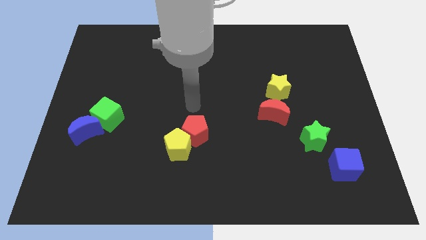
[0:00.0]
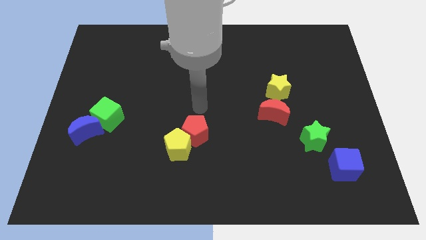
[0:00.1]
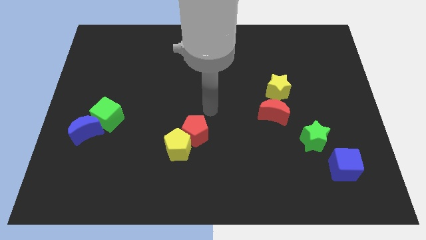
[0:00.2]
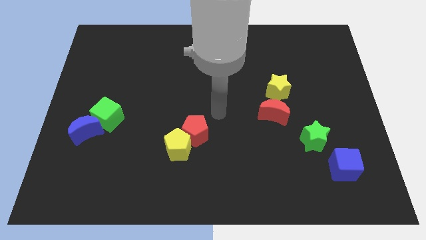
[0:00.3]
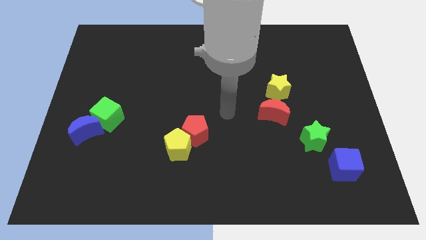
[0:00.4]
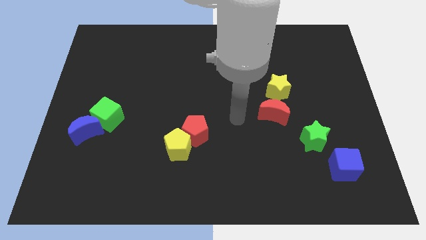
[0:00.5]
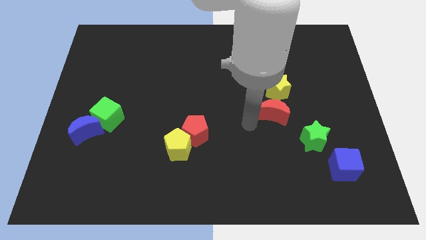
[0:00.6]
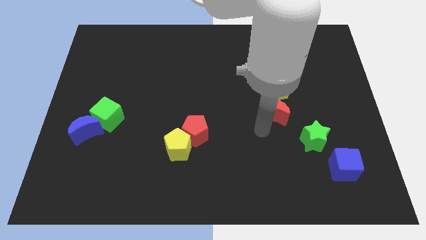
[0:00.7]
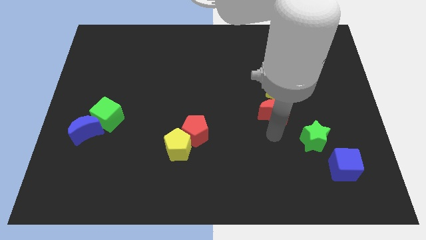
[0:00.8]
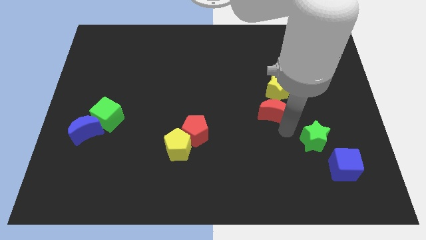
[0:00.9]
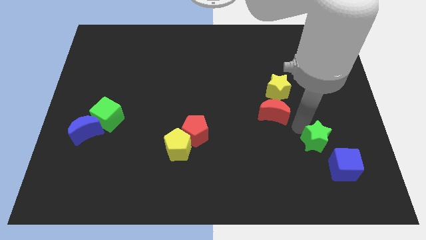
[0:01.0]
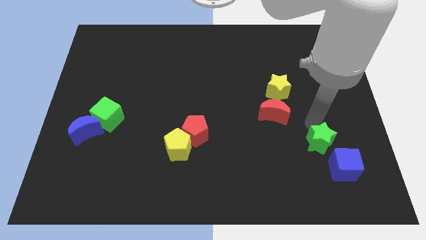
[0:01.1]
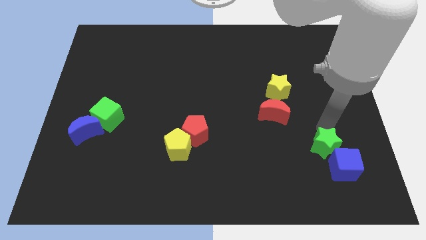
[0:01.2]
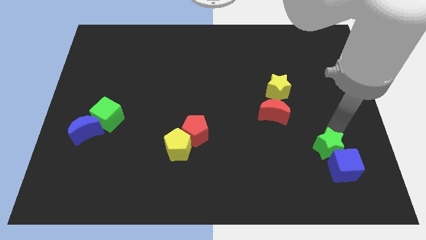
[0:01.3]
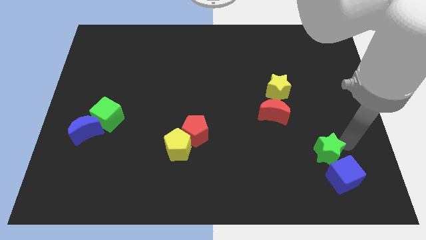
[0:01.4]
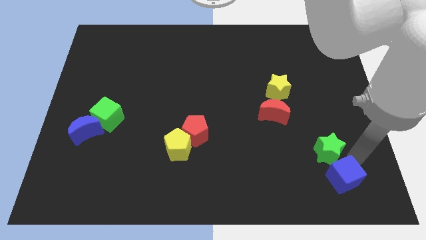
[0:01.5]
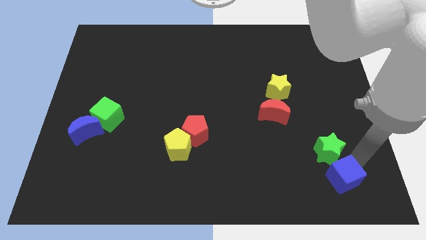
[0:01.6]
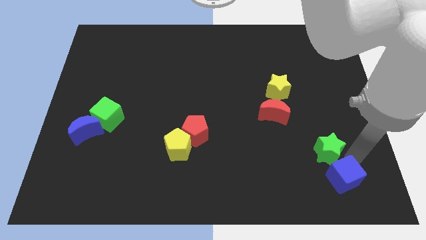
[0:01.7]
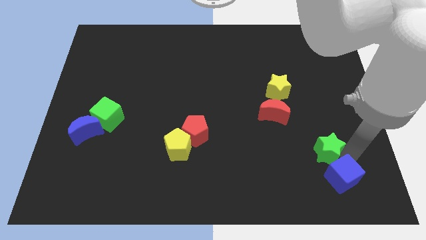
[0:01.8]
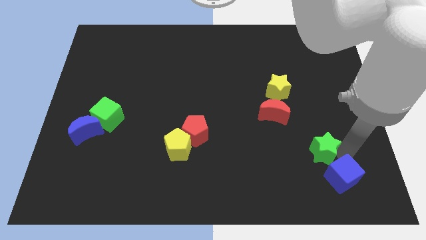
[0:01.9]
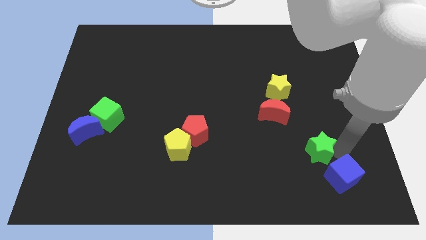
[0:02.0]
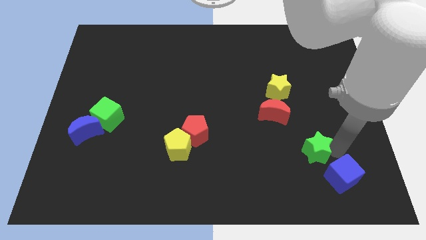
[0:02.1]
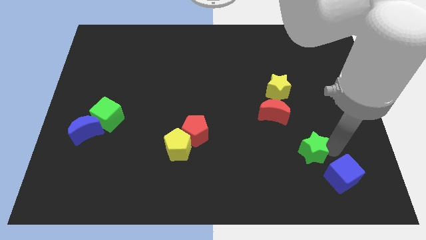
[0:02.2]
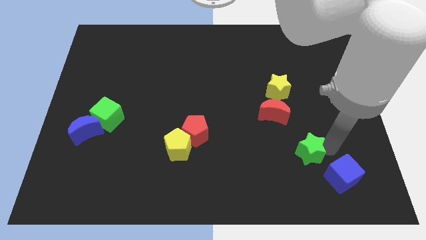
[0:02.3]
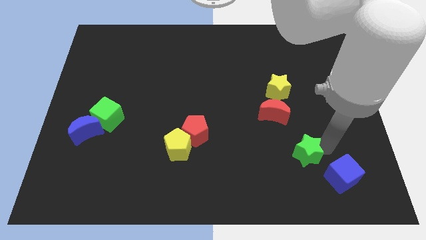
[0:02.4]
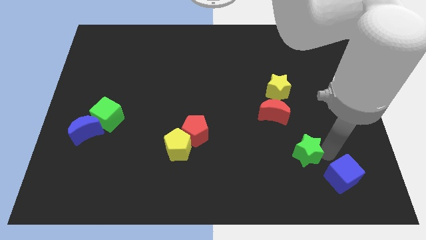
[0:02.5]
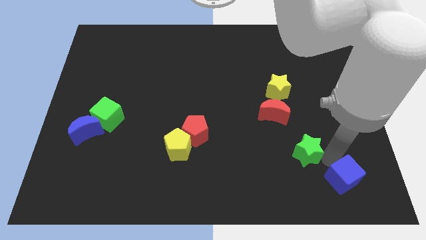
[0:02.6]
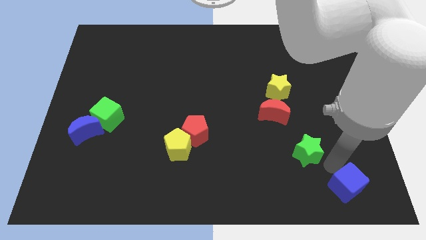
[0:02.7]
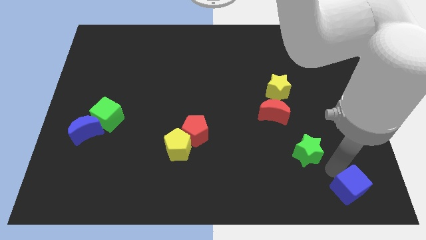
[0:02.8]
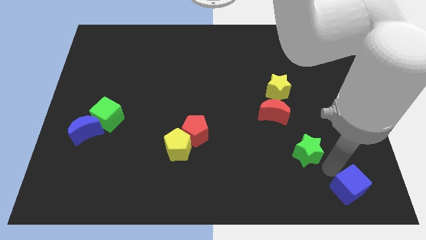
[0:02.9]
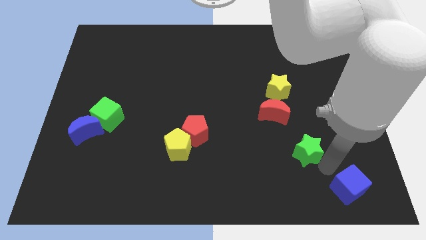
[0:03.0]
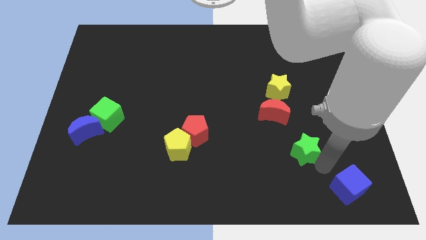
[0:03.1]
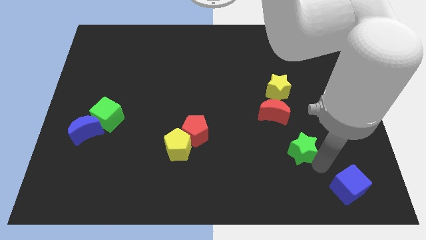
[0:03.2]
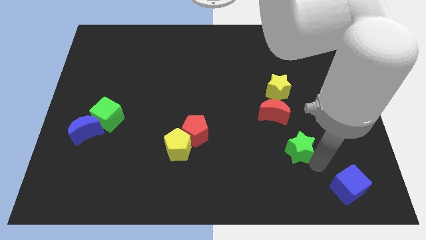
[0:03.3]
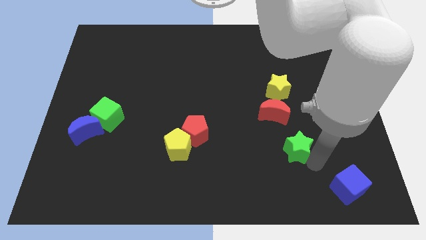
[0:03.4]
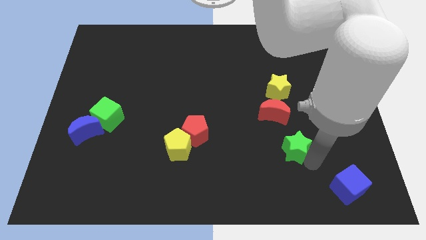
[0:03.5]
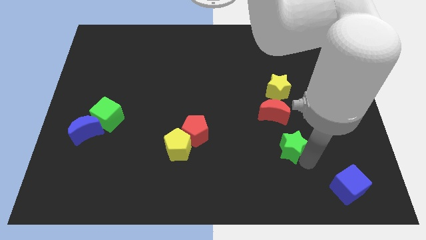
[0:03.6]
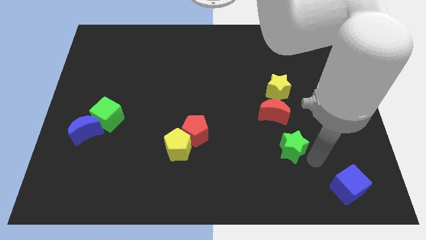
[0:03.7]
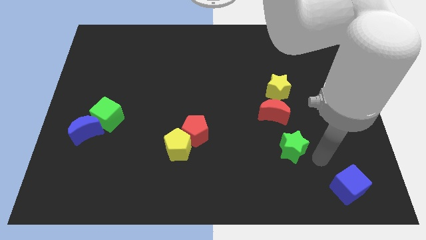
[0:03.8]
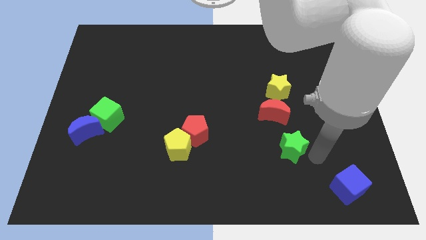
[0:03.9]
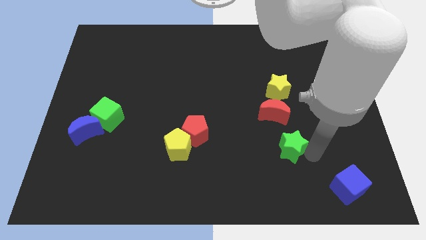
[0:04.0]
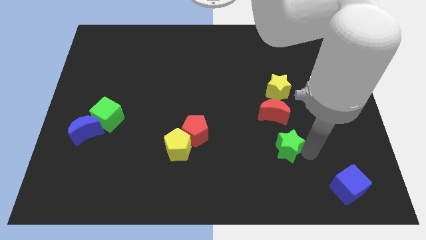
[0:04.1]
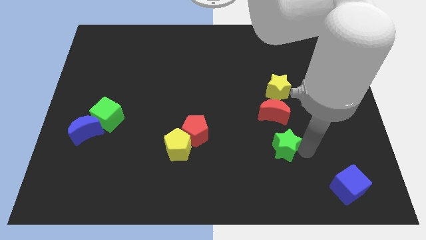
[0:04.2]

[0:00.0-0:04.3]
slightly move the green star left

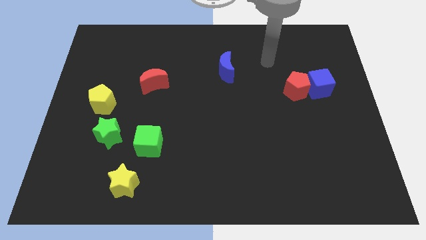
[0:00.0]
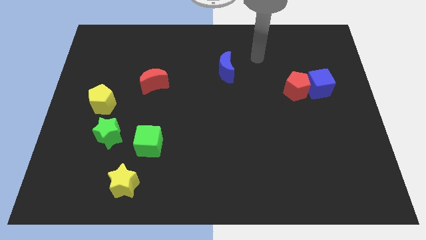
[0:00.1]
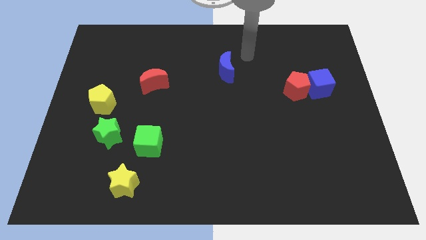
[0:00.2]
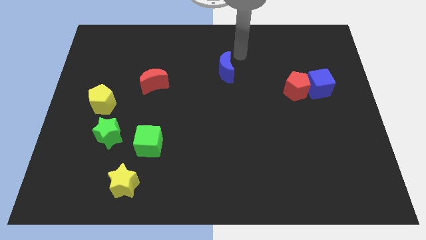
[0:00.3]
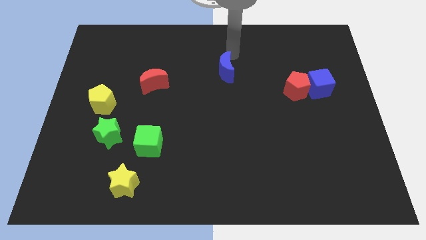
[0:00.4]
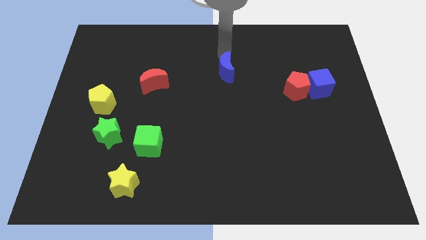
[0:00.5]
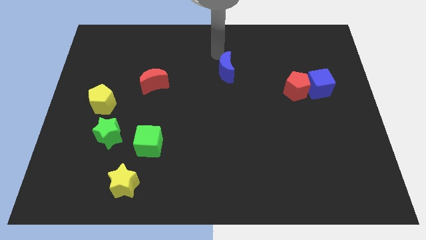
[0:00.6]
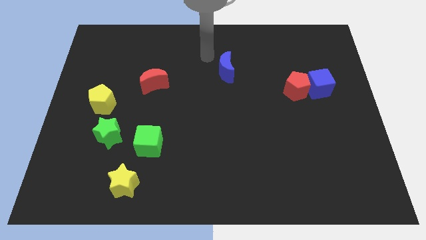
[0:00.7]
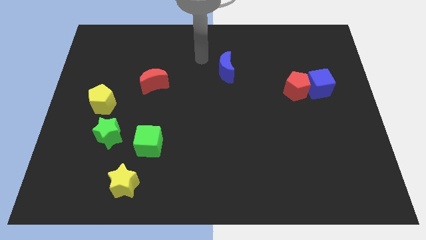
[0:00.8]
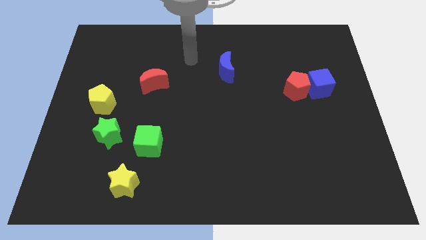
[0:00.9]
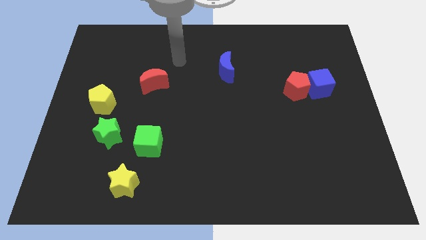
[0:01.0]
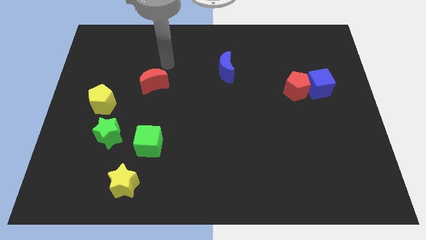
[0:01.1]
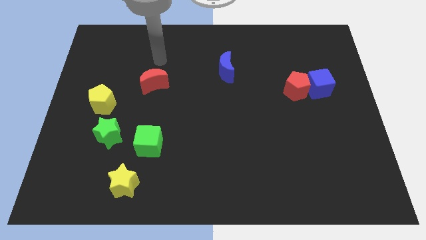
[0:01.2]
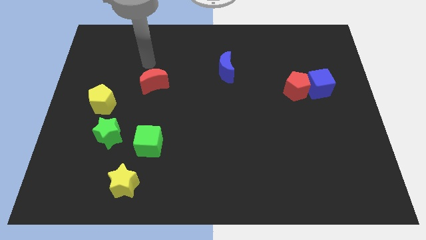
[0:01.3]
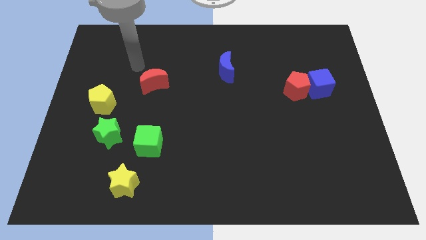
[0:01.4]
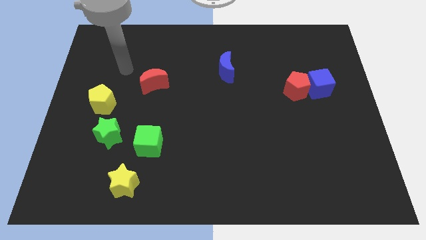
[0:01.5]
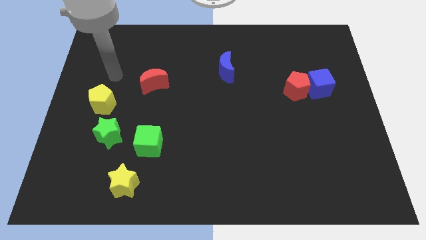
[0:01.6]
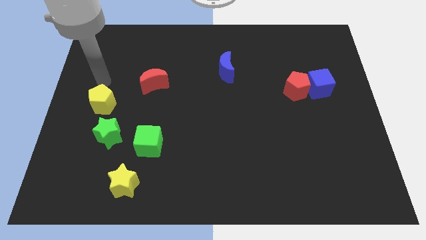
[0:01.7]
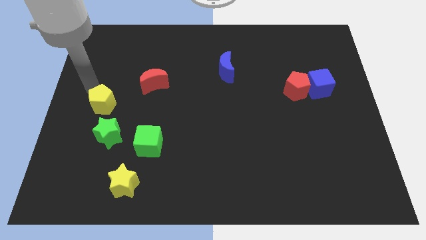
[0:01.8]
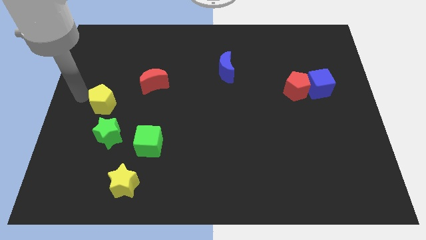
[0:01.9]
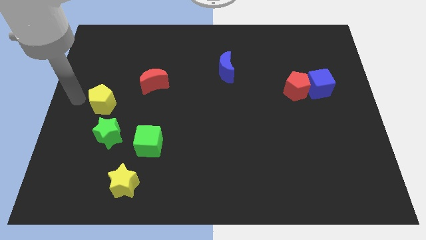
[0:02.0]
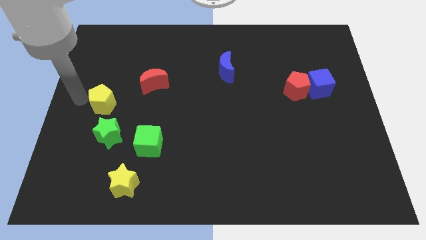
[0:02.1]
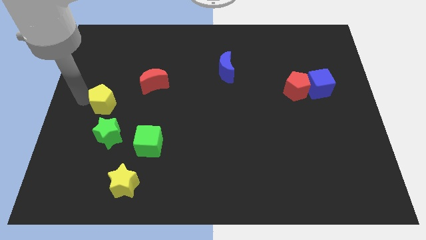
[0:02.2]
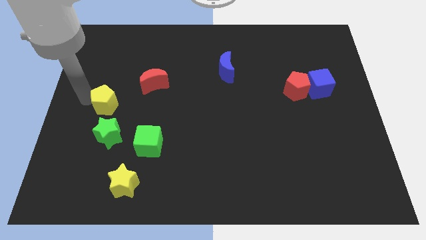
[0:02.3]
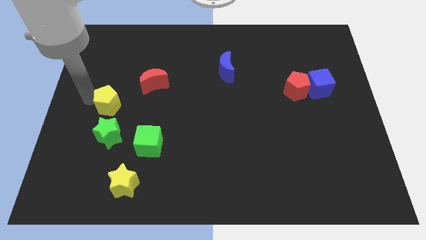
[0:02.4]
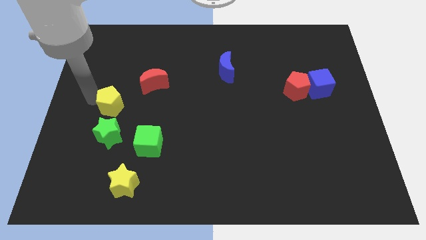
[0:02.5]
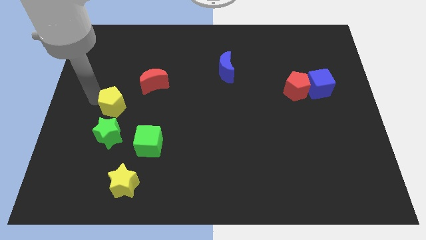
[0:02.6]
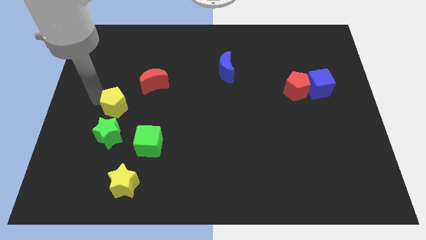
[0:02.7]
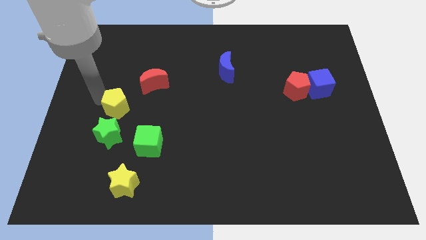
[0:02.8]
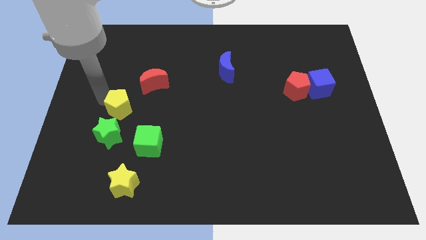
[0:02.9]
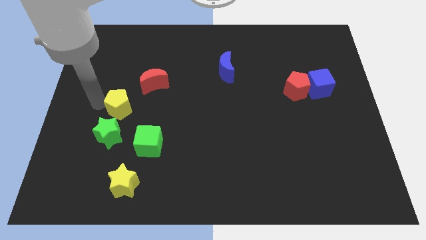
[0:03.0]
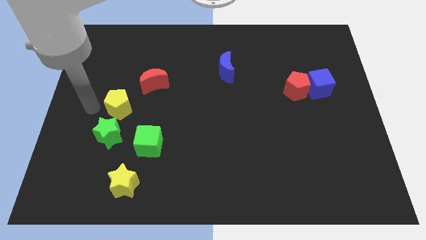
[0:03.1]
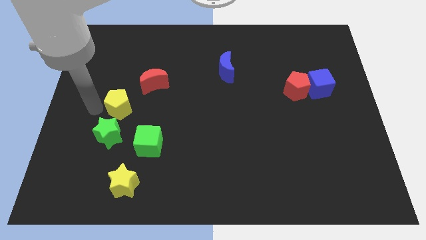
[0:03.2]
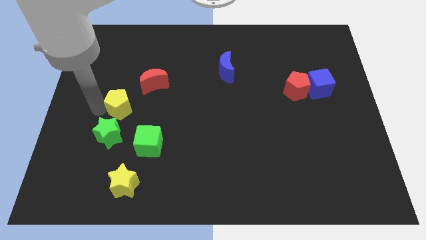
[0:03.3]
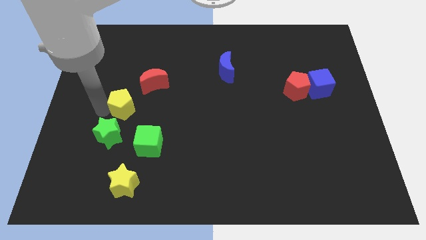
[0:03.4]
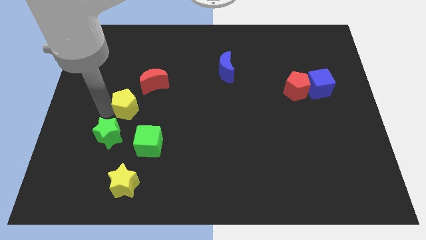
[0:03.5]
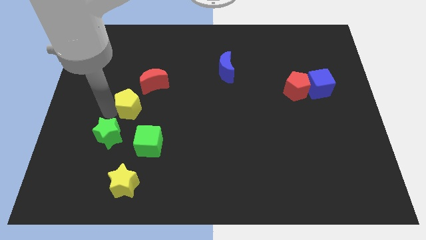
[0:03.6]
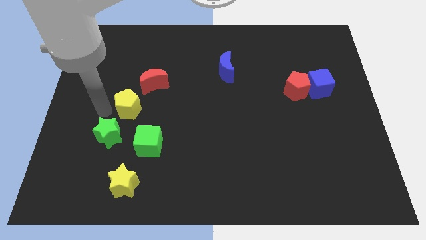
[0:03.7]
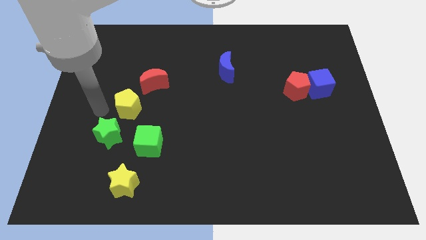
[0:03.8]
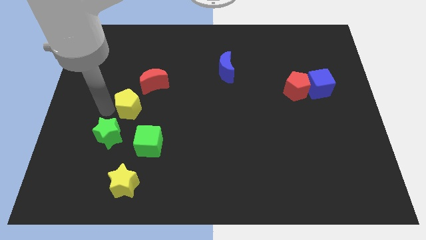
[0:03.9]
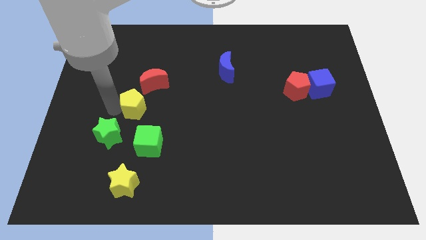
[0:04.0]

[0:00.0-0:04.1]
move the yellow pentagon slightly to the right
